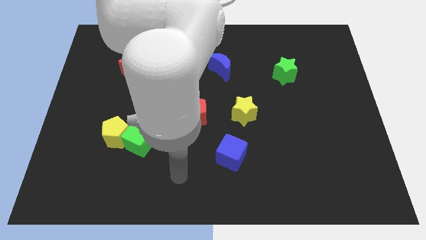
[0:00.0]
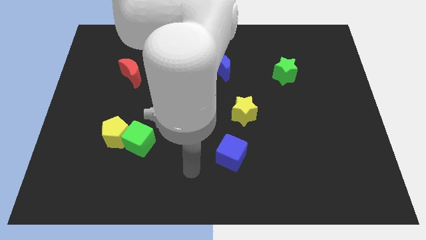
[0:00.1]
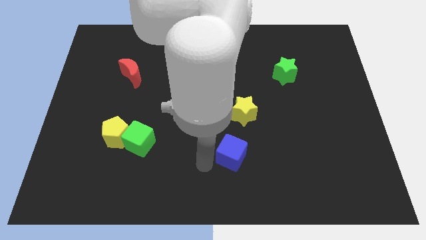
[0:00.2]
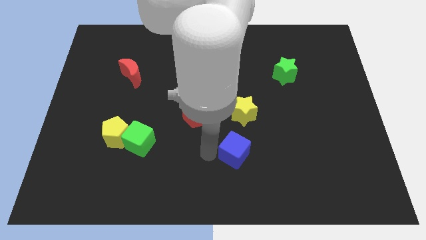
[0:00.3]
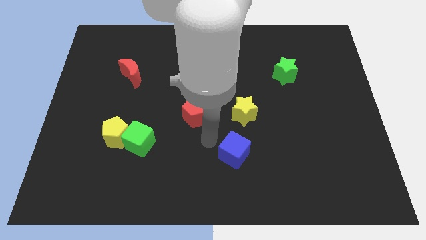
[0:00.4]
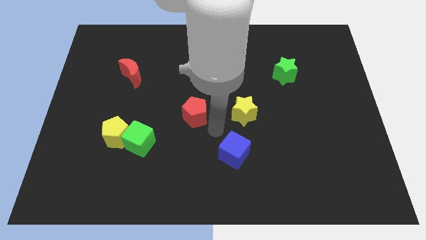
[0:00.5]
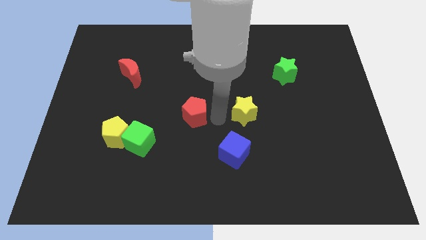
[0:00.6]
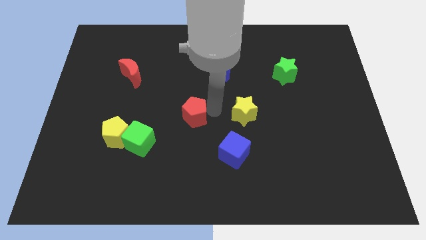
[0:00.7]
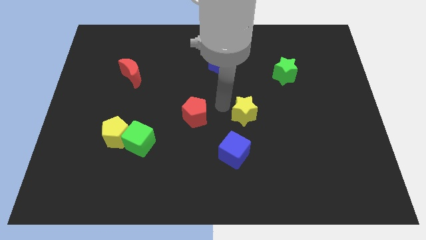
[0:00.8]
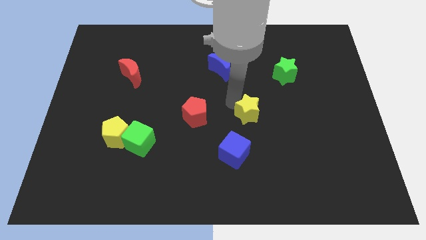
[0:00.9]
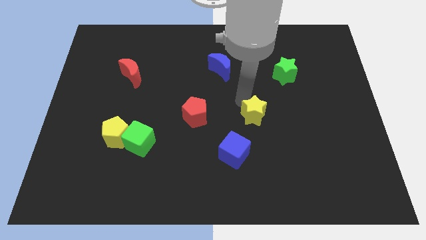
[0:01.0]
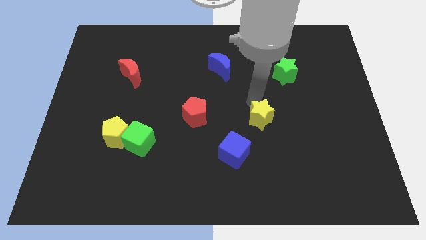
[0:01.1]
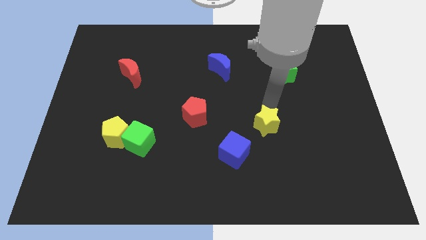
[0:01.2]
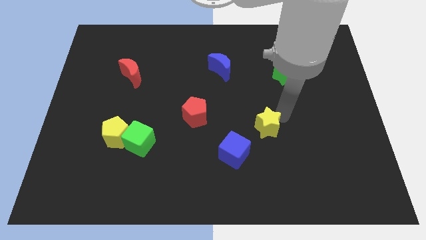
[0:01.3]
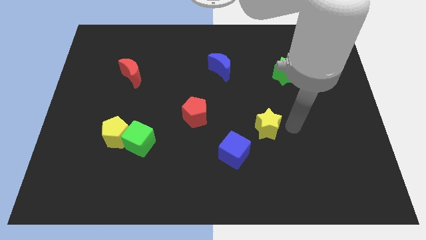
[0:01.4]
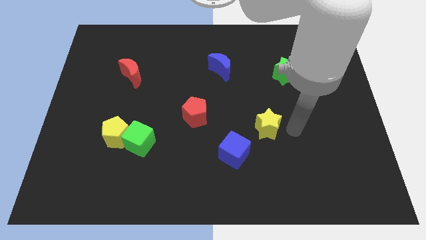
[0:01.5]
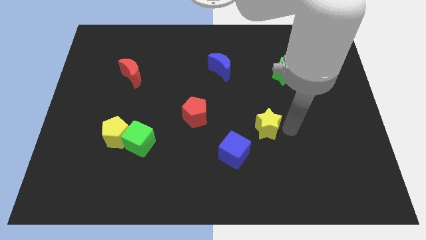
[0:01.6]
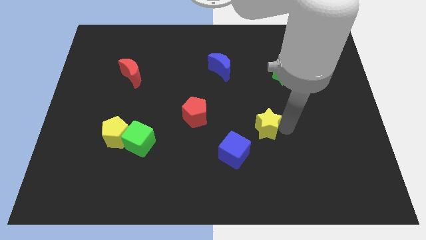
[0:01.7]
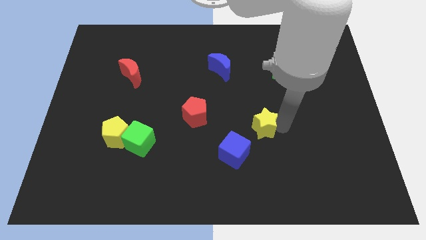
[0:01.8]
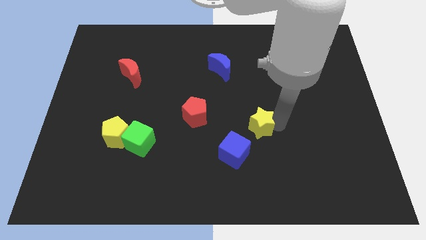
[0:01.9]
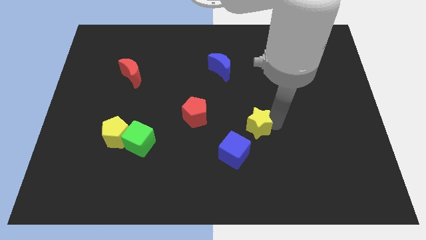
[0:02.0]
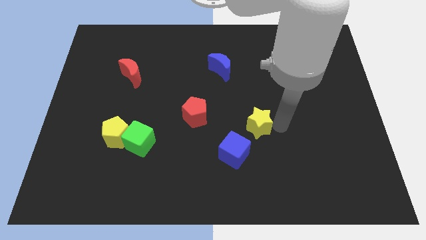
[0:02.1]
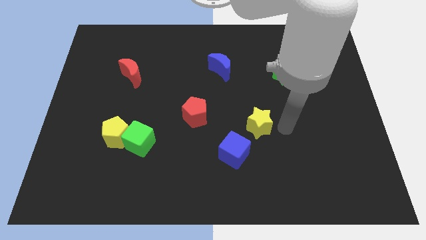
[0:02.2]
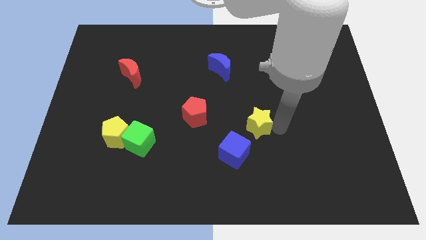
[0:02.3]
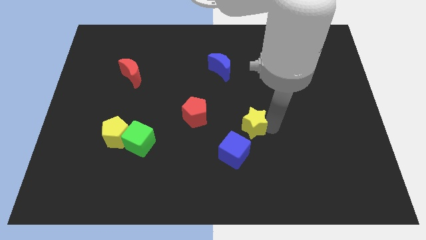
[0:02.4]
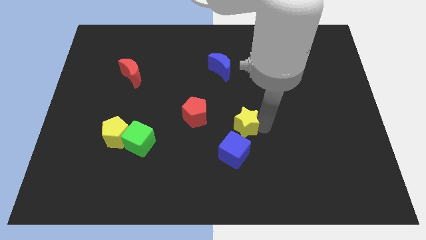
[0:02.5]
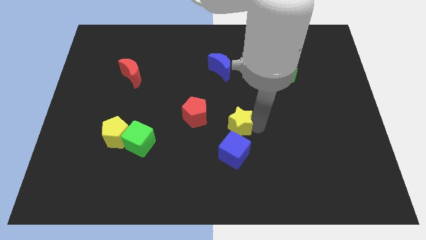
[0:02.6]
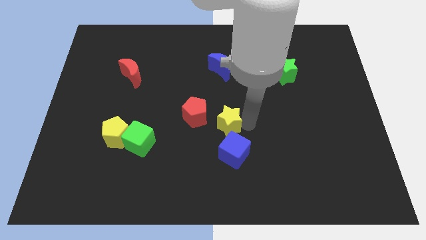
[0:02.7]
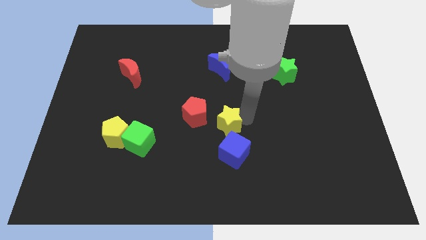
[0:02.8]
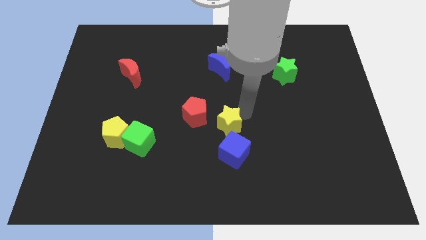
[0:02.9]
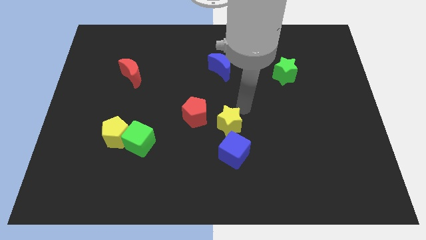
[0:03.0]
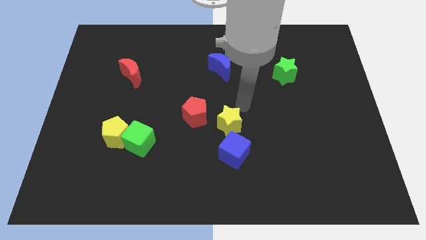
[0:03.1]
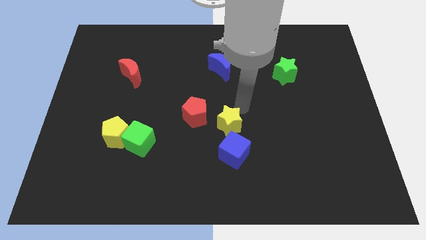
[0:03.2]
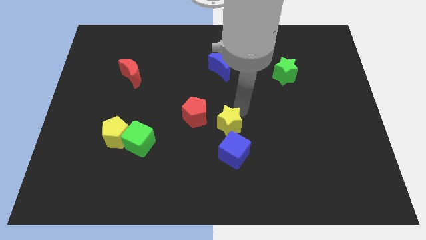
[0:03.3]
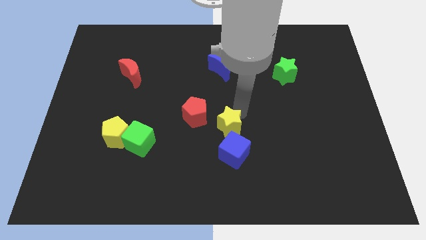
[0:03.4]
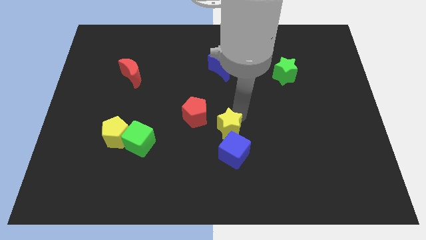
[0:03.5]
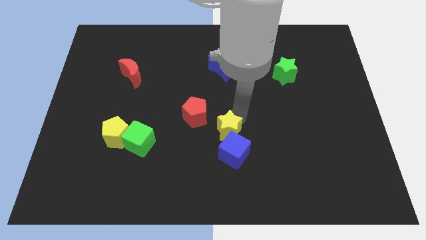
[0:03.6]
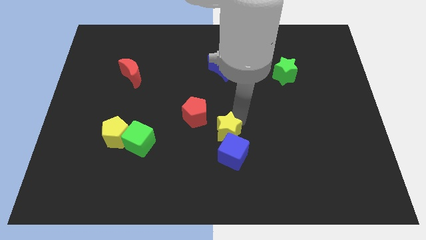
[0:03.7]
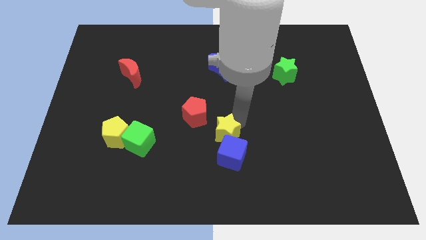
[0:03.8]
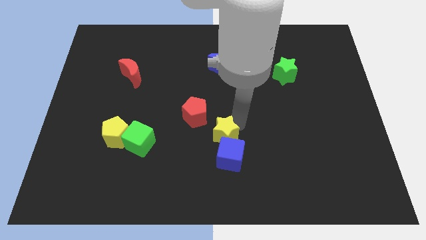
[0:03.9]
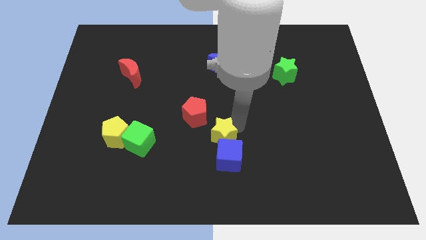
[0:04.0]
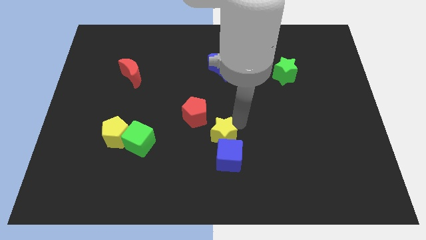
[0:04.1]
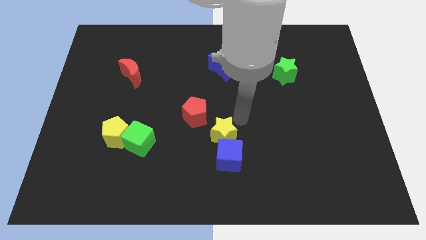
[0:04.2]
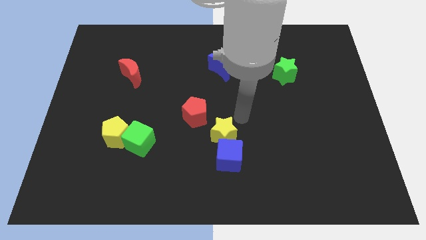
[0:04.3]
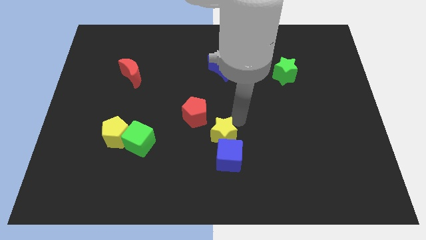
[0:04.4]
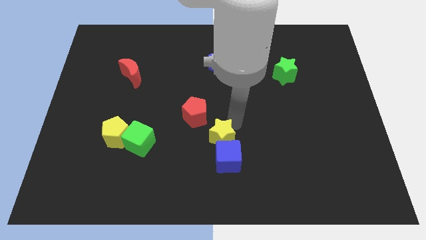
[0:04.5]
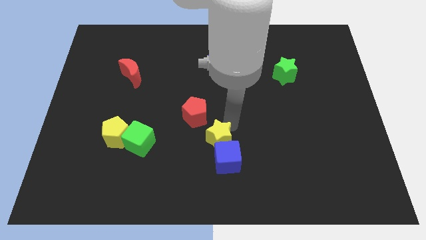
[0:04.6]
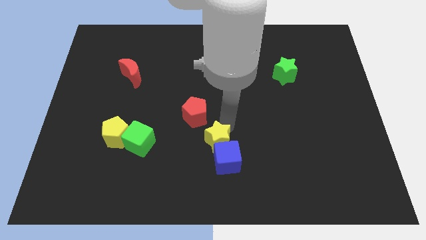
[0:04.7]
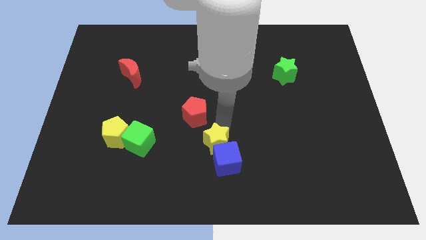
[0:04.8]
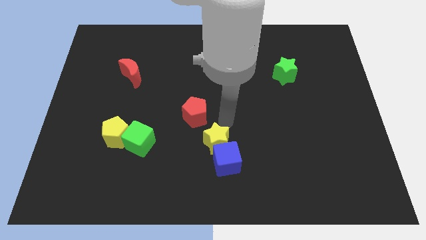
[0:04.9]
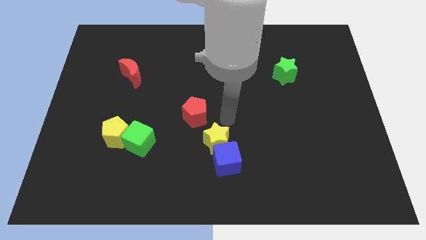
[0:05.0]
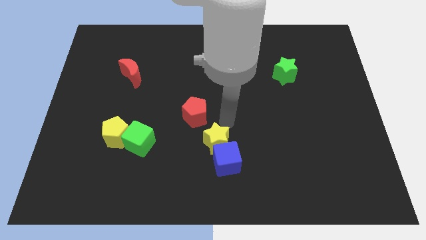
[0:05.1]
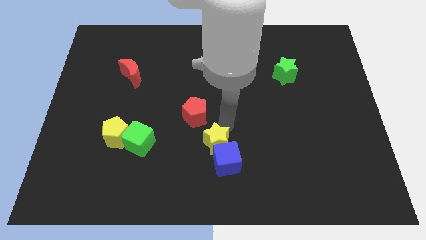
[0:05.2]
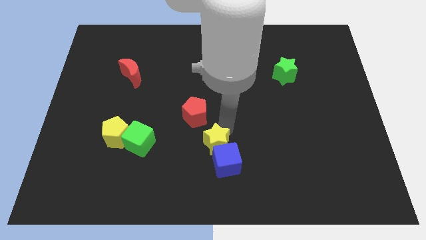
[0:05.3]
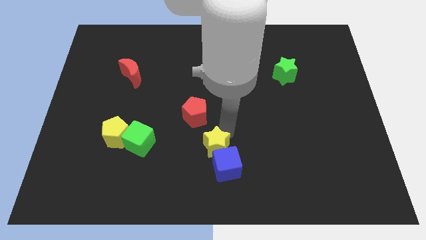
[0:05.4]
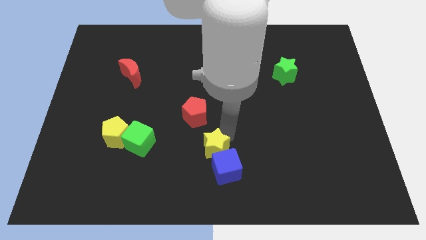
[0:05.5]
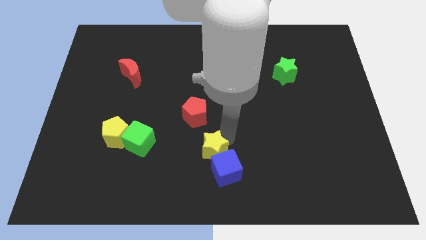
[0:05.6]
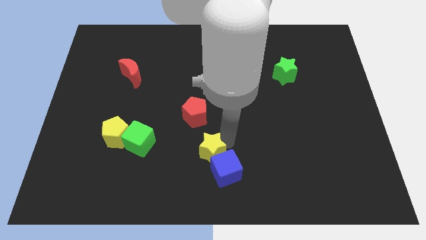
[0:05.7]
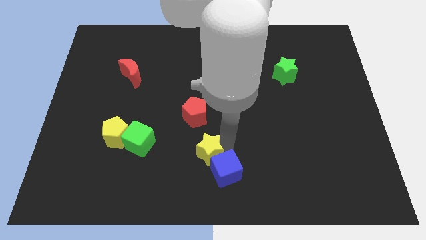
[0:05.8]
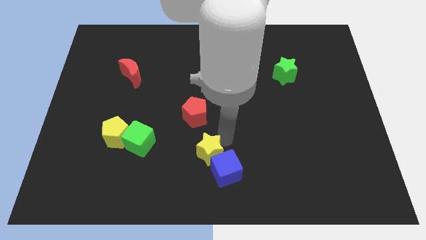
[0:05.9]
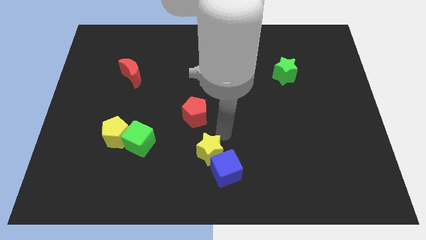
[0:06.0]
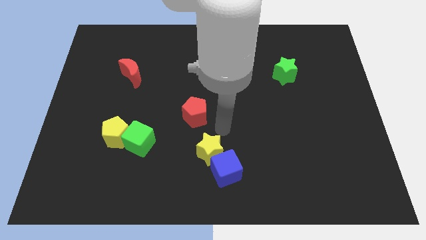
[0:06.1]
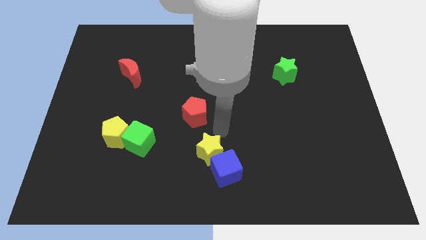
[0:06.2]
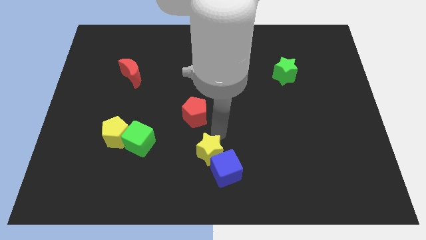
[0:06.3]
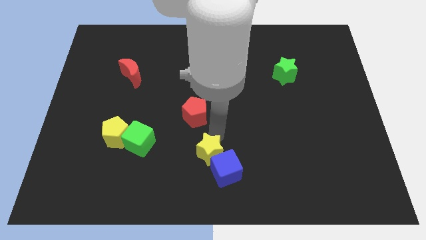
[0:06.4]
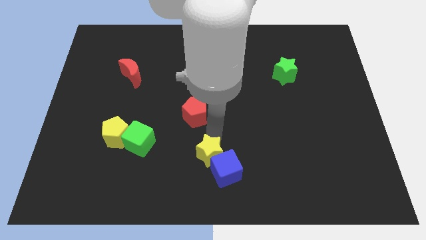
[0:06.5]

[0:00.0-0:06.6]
push the yellow star to the bottom
